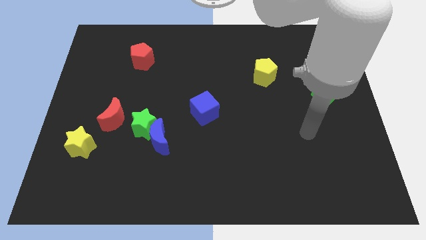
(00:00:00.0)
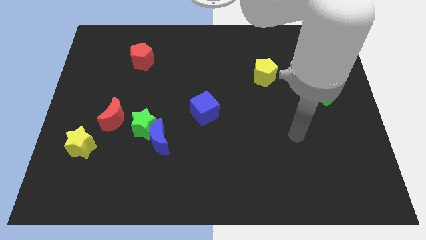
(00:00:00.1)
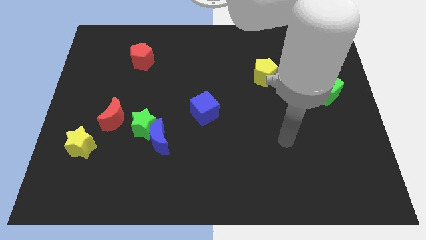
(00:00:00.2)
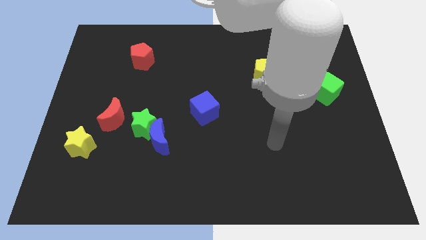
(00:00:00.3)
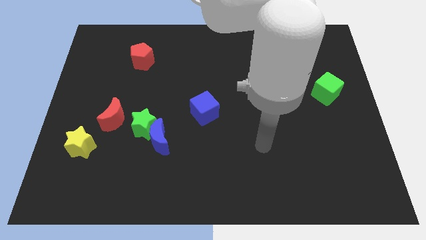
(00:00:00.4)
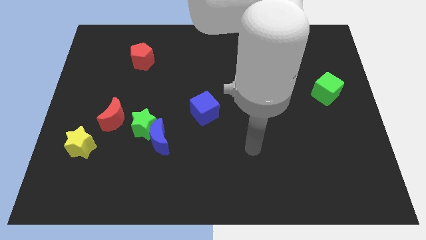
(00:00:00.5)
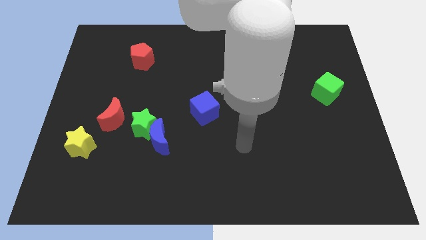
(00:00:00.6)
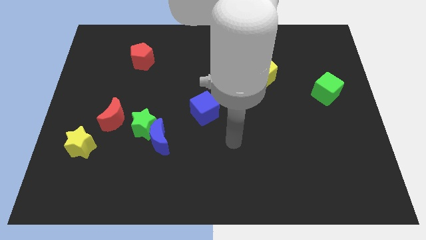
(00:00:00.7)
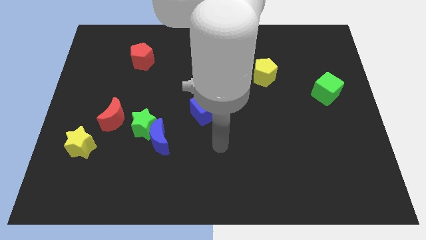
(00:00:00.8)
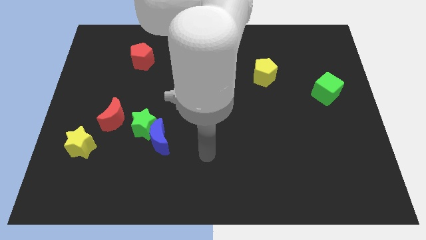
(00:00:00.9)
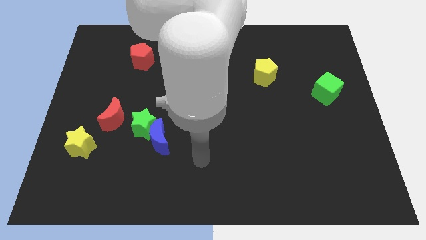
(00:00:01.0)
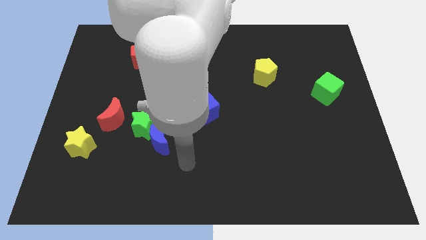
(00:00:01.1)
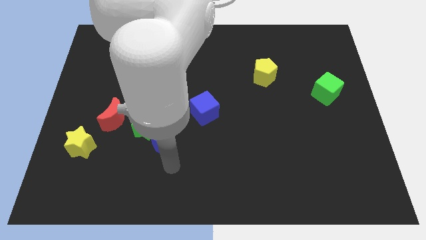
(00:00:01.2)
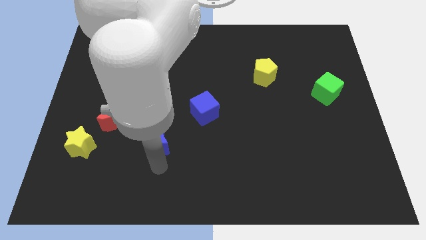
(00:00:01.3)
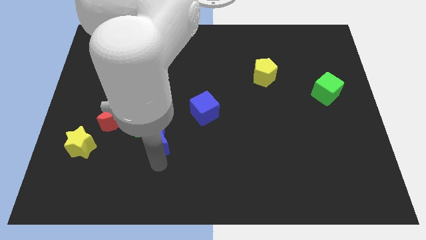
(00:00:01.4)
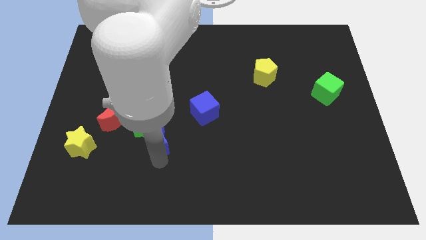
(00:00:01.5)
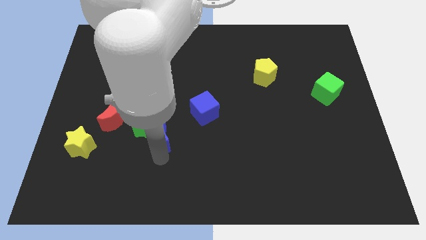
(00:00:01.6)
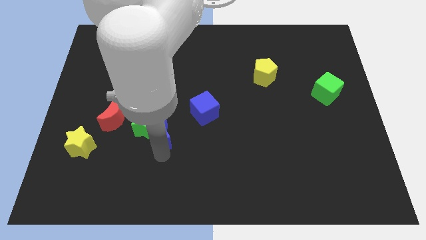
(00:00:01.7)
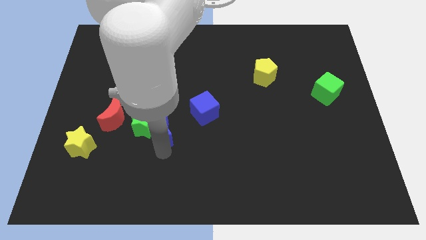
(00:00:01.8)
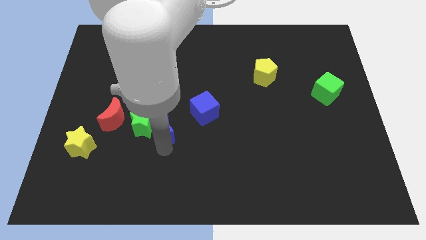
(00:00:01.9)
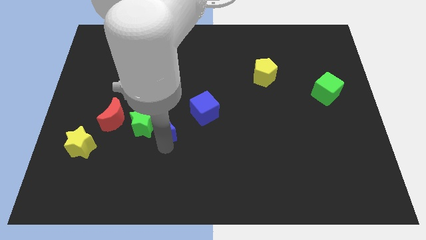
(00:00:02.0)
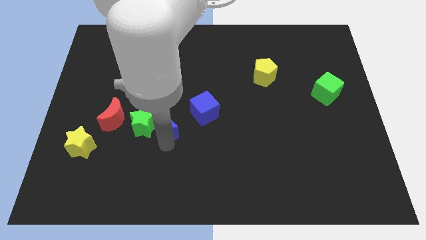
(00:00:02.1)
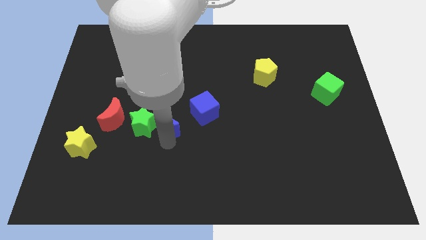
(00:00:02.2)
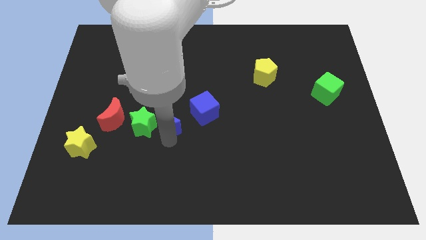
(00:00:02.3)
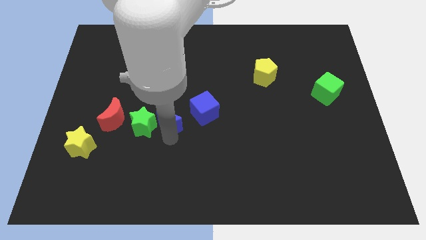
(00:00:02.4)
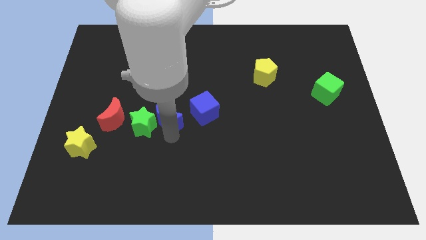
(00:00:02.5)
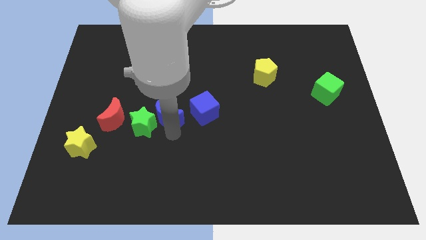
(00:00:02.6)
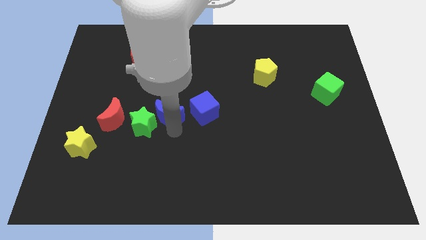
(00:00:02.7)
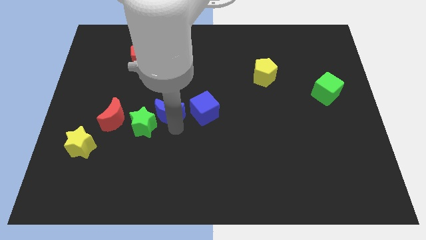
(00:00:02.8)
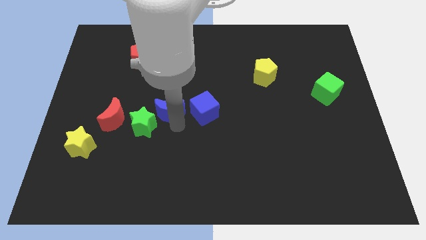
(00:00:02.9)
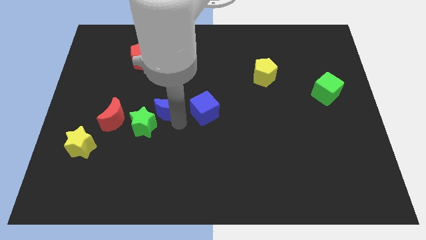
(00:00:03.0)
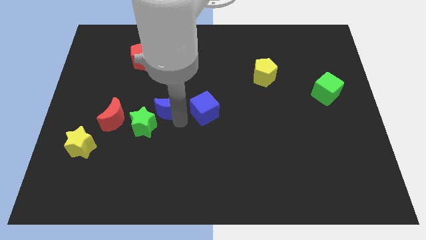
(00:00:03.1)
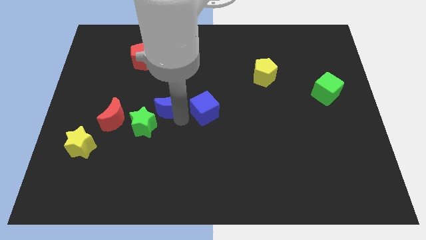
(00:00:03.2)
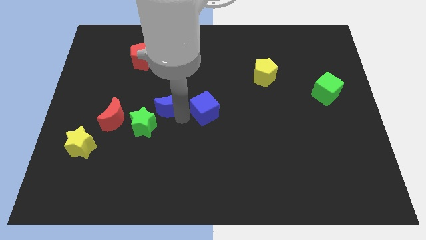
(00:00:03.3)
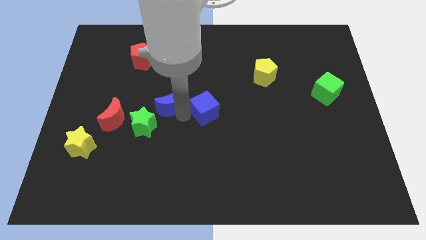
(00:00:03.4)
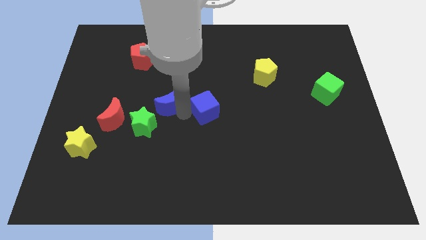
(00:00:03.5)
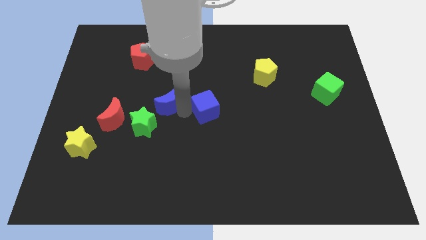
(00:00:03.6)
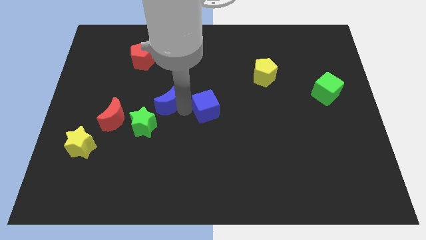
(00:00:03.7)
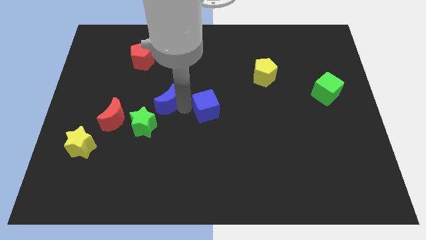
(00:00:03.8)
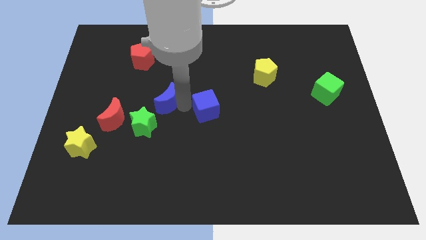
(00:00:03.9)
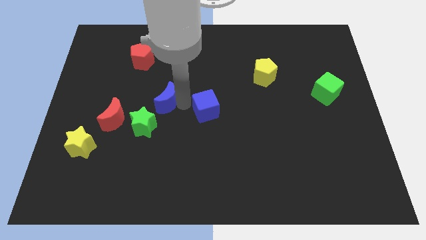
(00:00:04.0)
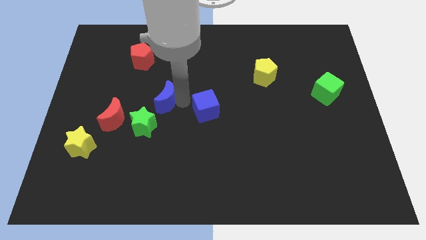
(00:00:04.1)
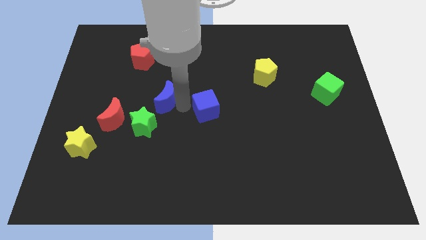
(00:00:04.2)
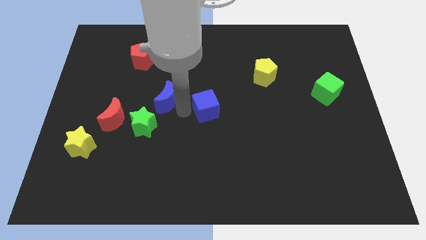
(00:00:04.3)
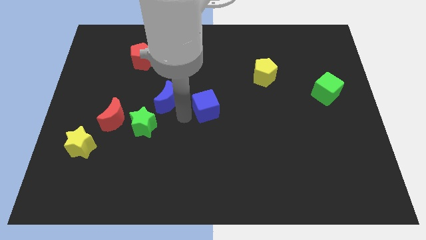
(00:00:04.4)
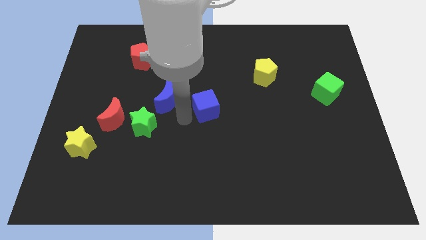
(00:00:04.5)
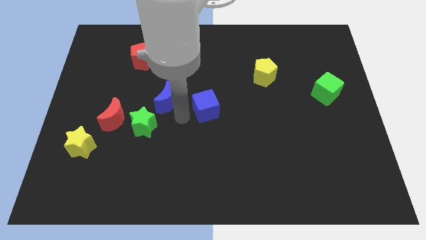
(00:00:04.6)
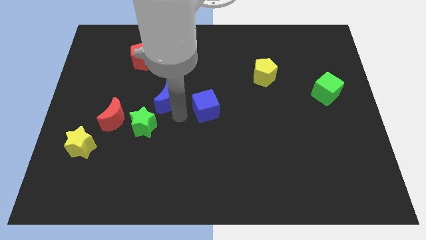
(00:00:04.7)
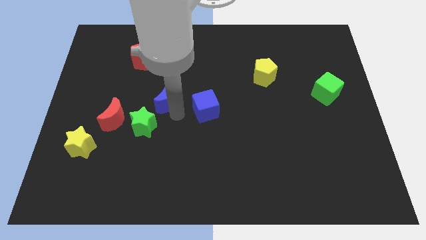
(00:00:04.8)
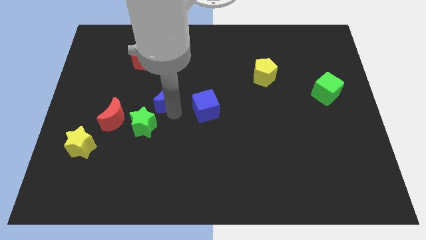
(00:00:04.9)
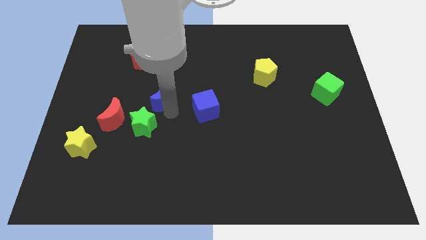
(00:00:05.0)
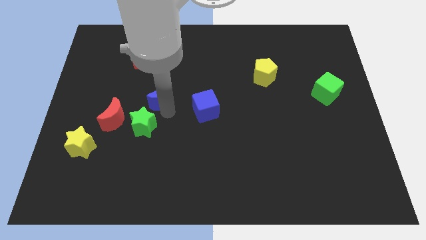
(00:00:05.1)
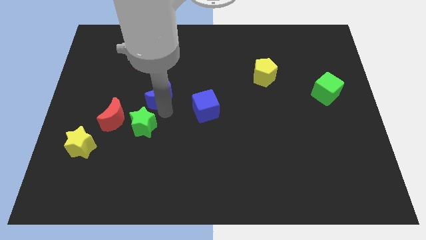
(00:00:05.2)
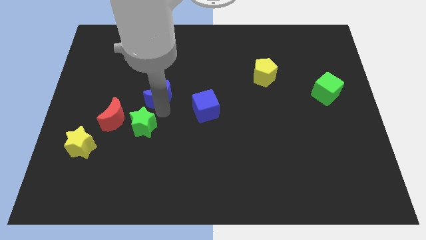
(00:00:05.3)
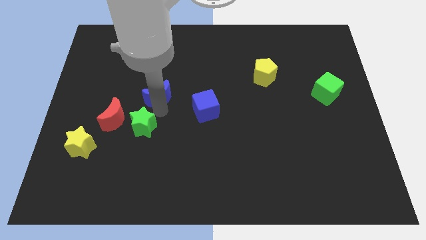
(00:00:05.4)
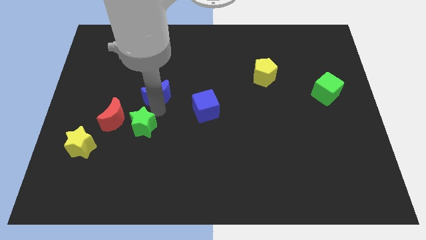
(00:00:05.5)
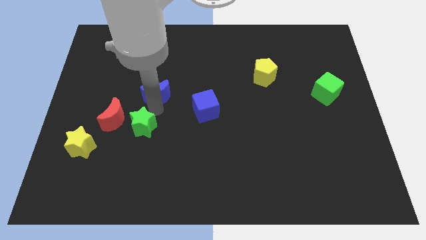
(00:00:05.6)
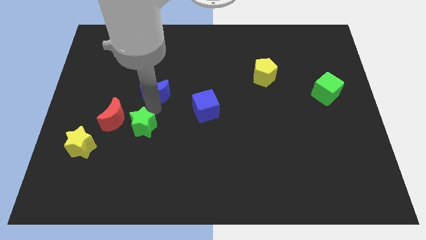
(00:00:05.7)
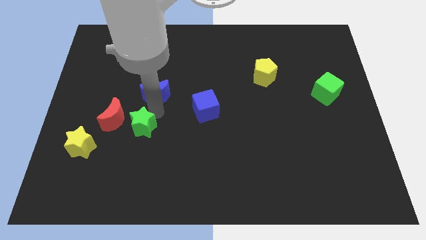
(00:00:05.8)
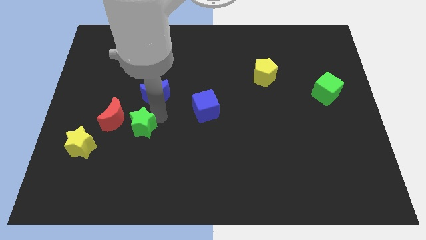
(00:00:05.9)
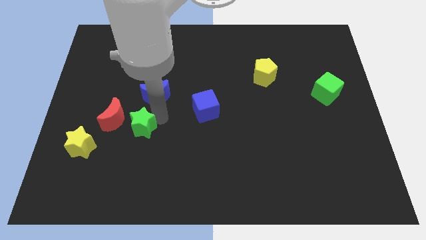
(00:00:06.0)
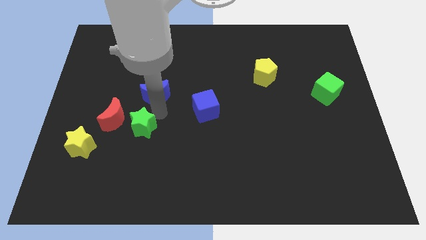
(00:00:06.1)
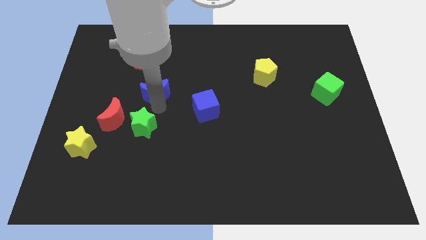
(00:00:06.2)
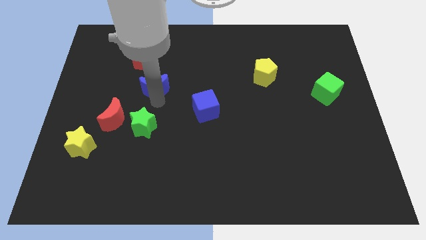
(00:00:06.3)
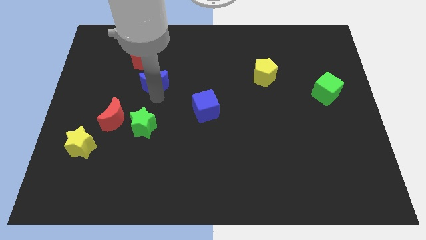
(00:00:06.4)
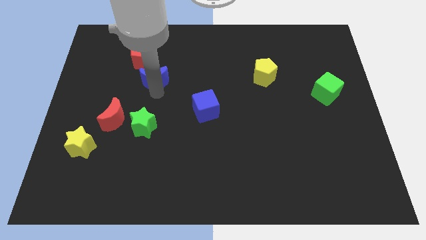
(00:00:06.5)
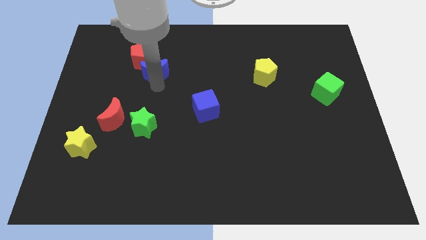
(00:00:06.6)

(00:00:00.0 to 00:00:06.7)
push the blue moon next to the red pentagon

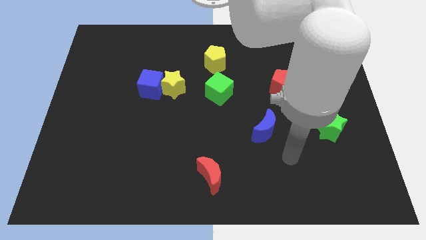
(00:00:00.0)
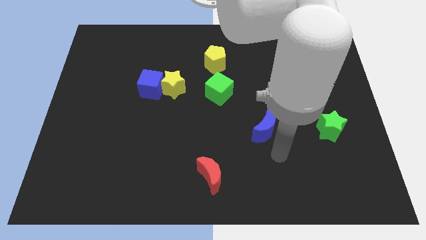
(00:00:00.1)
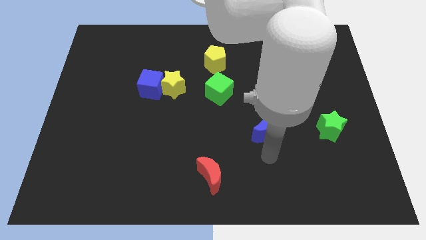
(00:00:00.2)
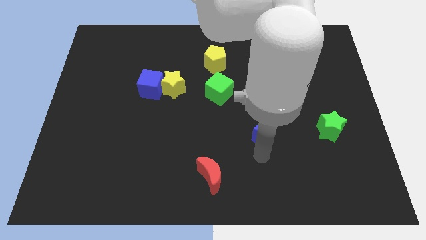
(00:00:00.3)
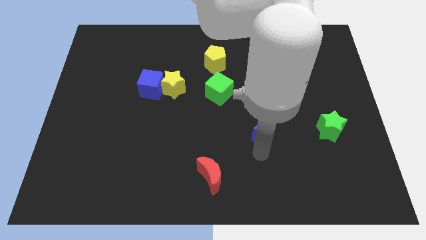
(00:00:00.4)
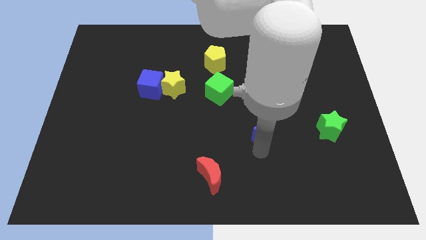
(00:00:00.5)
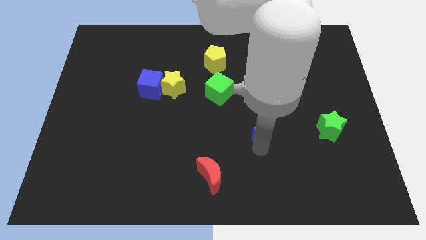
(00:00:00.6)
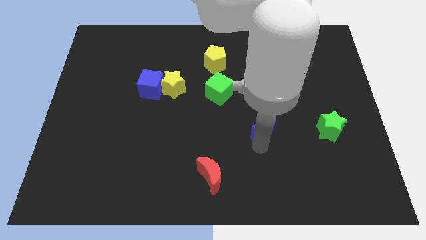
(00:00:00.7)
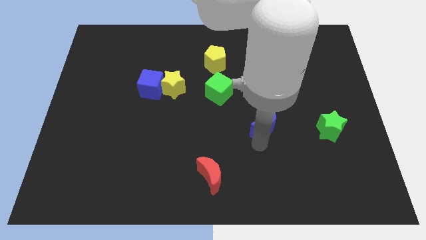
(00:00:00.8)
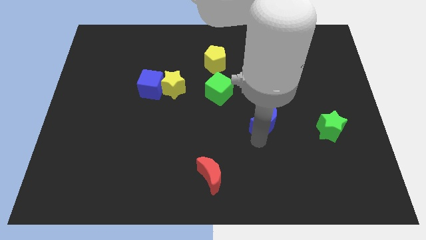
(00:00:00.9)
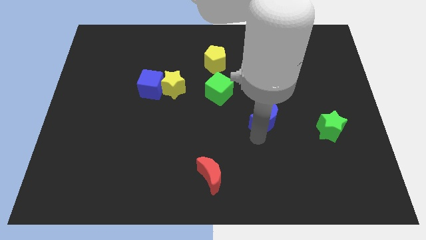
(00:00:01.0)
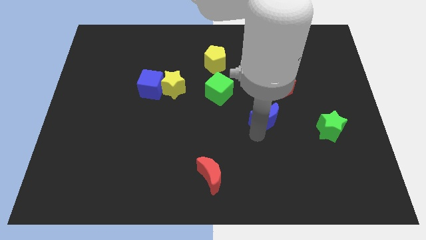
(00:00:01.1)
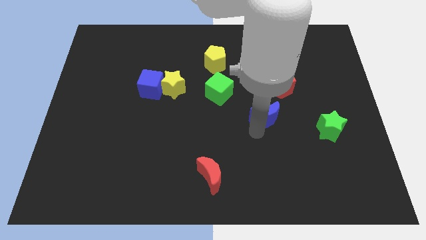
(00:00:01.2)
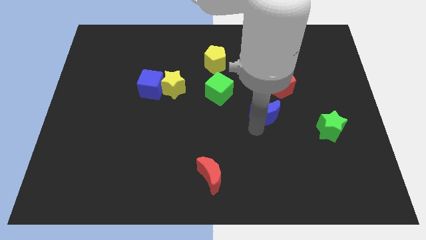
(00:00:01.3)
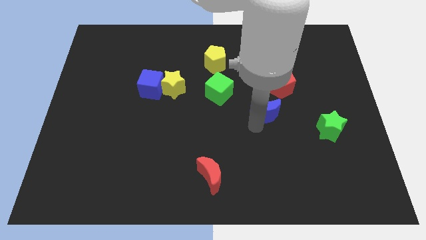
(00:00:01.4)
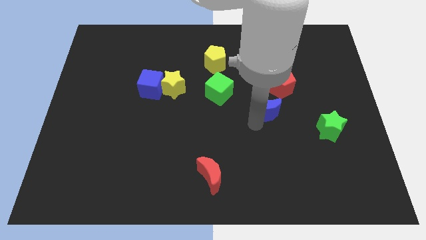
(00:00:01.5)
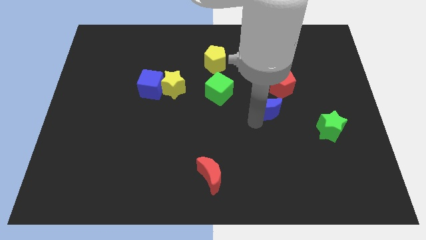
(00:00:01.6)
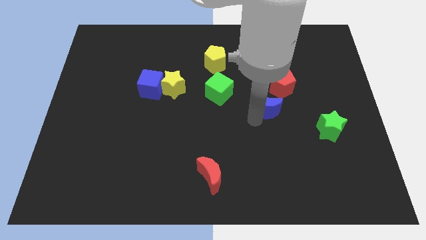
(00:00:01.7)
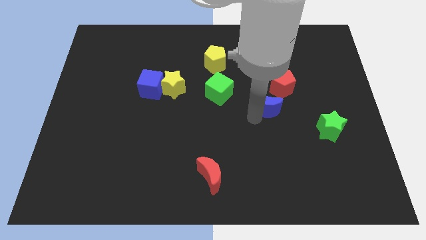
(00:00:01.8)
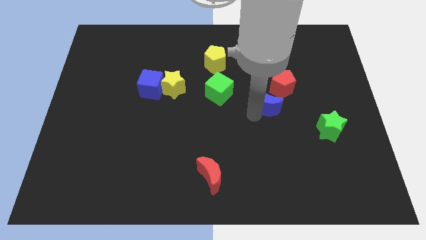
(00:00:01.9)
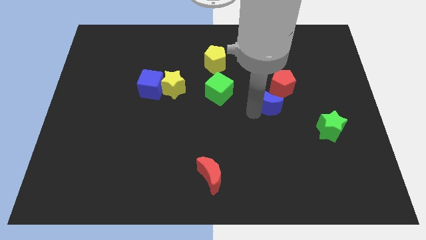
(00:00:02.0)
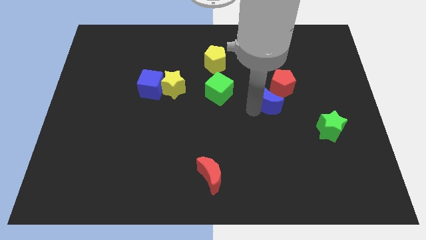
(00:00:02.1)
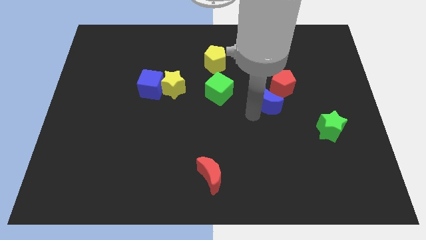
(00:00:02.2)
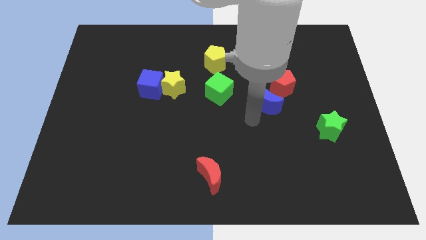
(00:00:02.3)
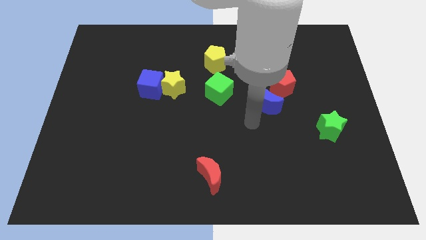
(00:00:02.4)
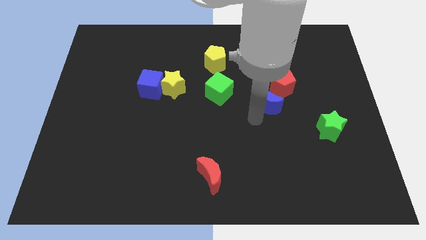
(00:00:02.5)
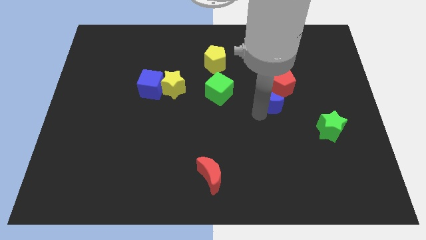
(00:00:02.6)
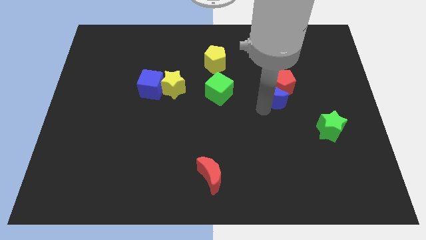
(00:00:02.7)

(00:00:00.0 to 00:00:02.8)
push the blue moon close to the red pentagon
